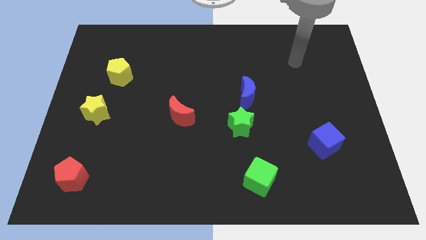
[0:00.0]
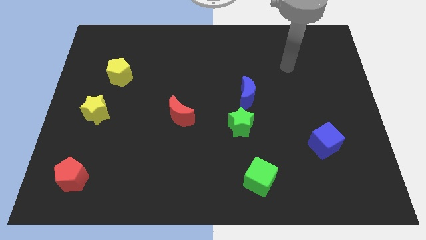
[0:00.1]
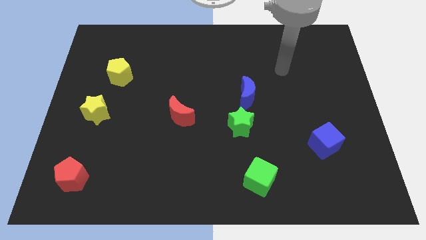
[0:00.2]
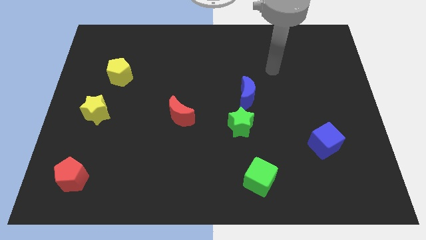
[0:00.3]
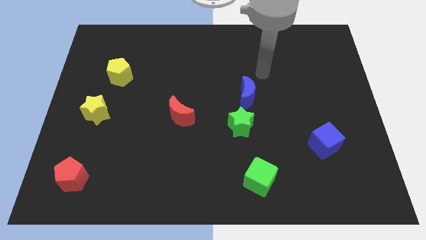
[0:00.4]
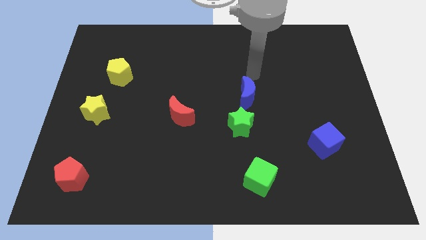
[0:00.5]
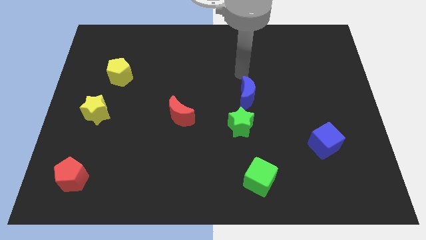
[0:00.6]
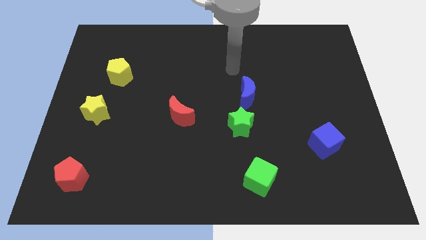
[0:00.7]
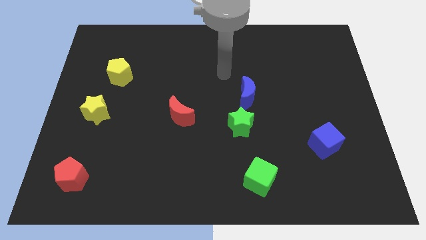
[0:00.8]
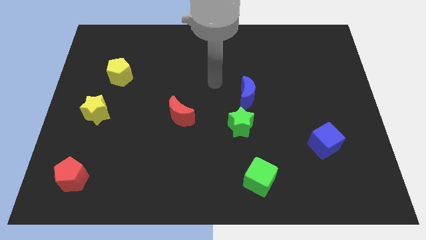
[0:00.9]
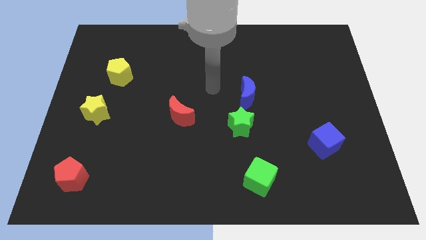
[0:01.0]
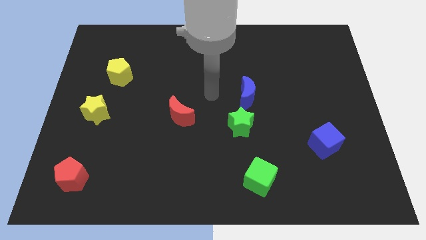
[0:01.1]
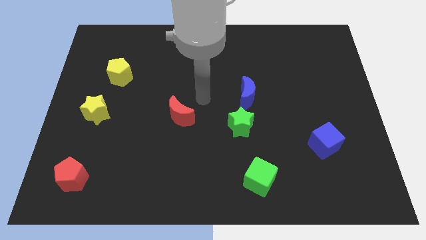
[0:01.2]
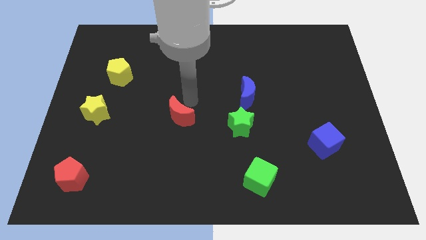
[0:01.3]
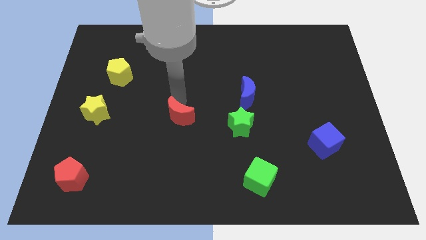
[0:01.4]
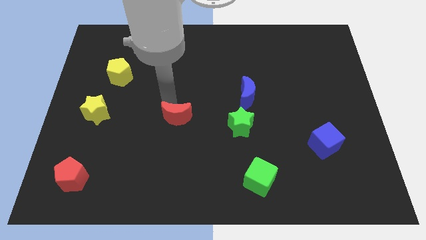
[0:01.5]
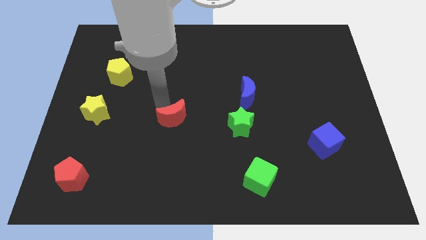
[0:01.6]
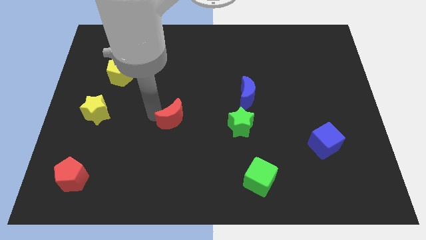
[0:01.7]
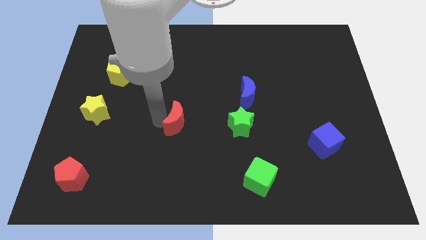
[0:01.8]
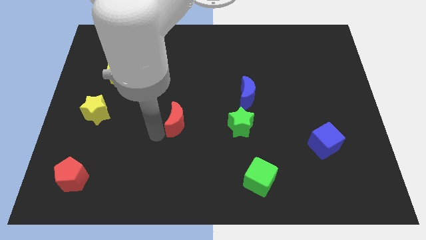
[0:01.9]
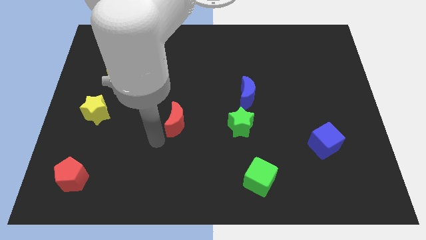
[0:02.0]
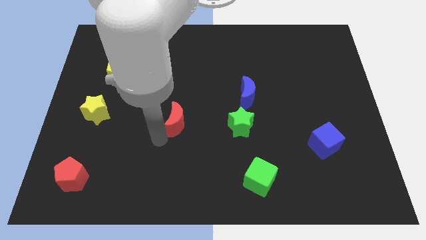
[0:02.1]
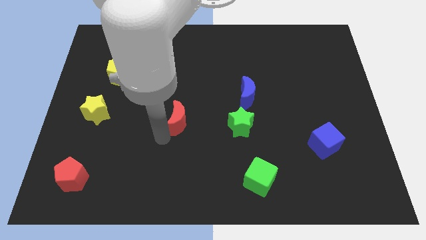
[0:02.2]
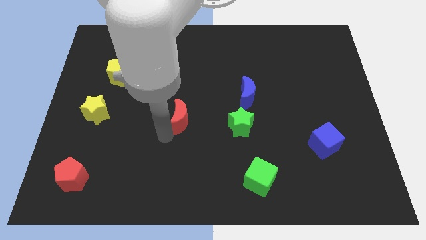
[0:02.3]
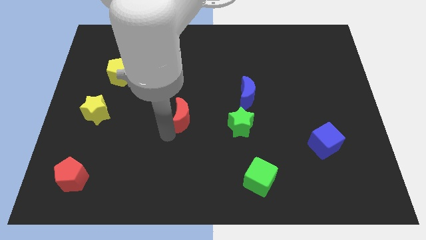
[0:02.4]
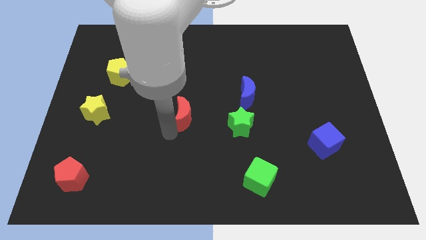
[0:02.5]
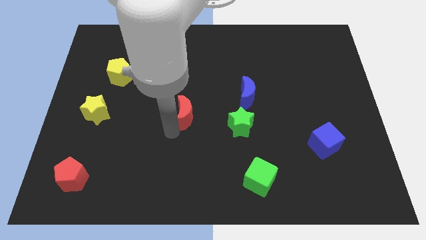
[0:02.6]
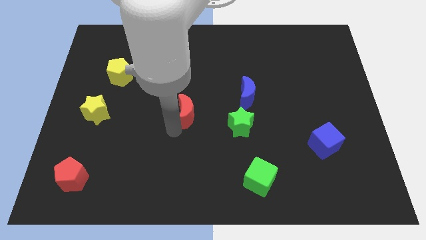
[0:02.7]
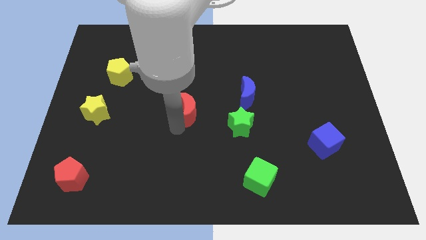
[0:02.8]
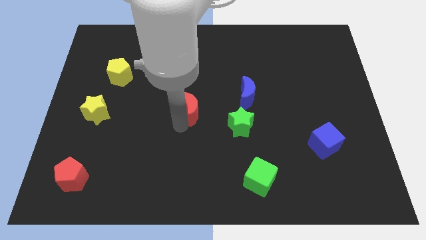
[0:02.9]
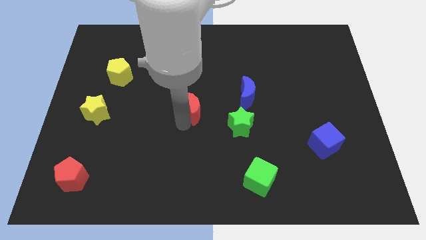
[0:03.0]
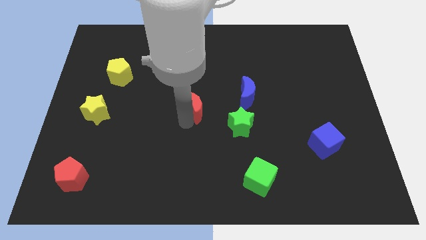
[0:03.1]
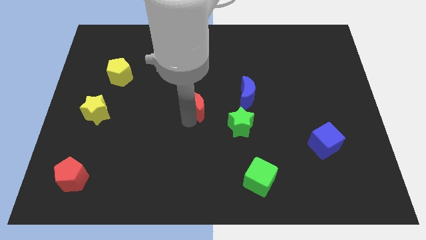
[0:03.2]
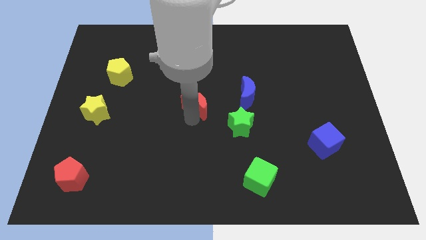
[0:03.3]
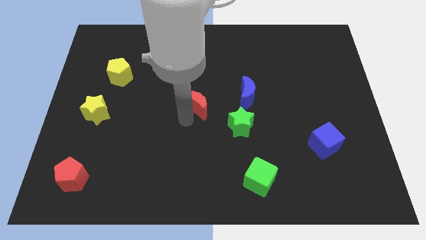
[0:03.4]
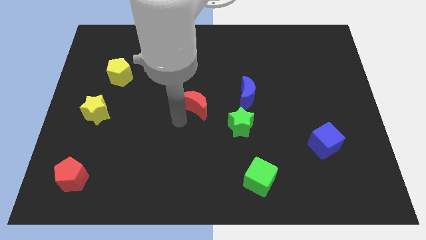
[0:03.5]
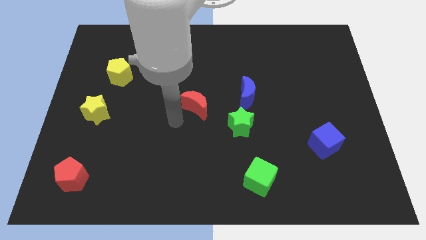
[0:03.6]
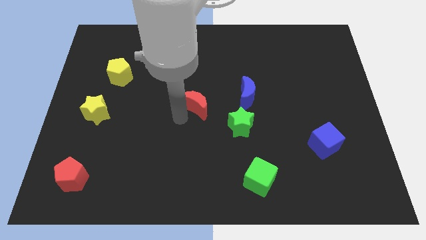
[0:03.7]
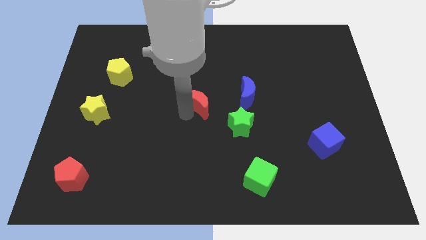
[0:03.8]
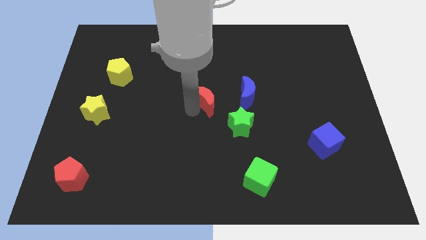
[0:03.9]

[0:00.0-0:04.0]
slightly move the red moon upwards and then to the right

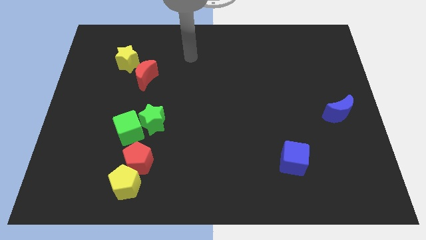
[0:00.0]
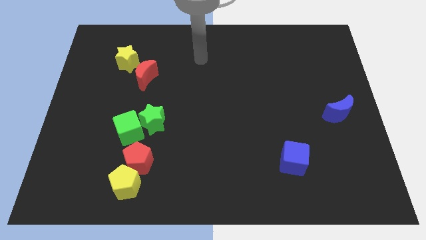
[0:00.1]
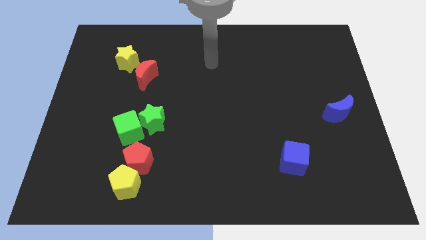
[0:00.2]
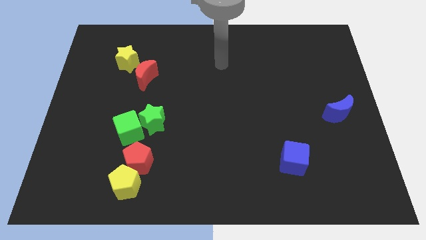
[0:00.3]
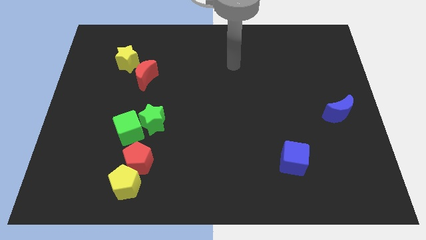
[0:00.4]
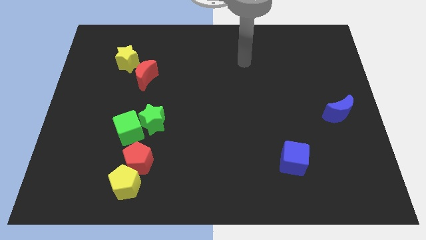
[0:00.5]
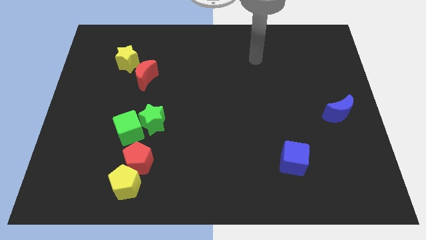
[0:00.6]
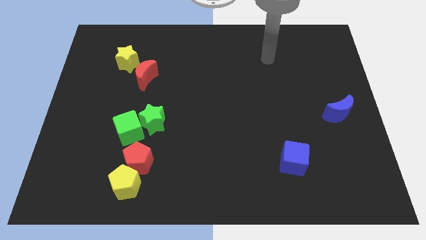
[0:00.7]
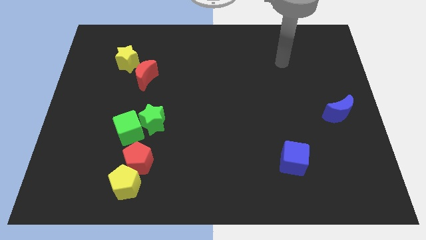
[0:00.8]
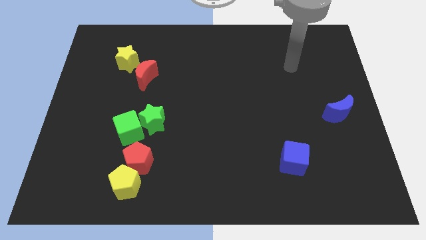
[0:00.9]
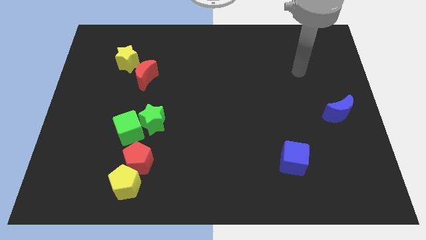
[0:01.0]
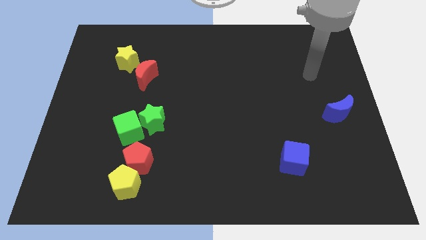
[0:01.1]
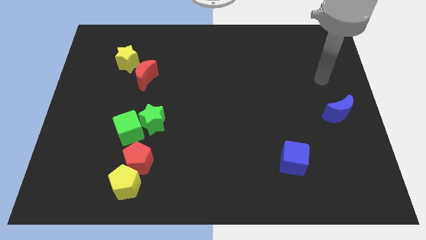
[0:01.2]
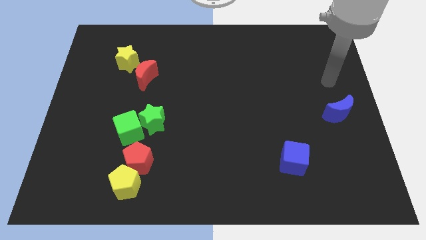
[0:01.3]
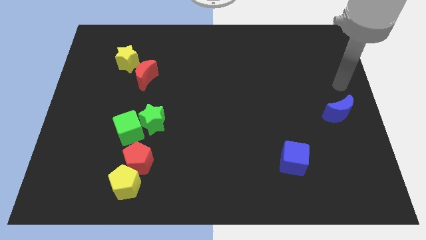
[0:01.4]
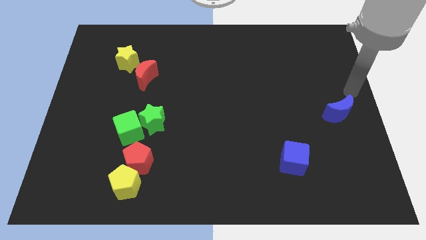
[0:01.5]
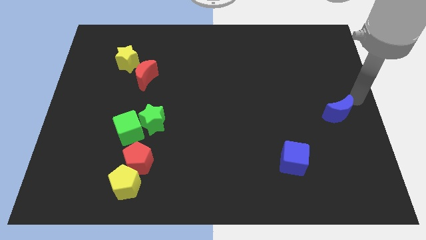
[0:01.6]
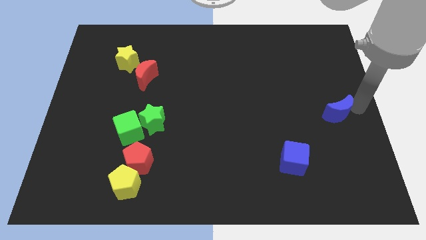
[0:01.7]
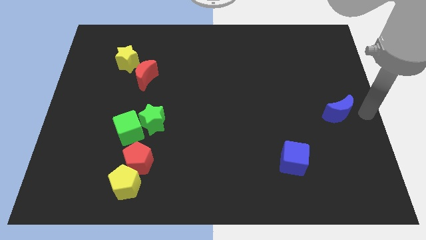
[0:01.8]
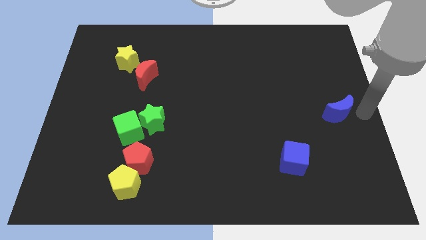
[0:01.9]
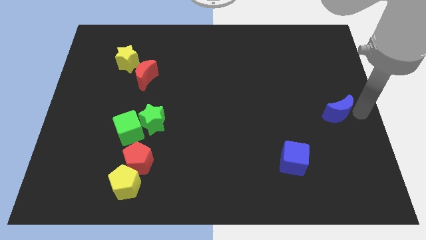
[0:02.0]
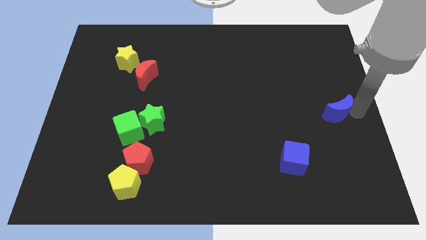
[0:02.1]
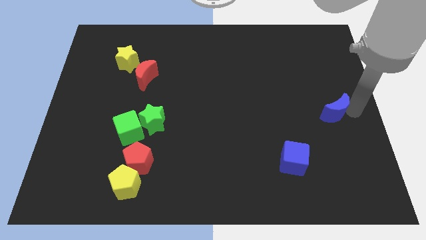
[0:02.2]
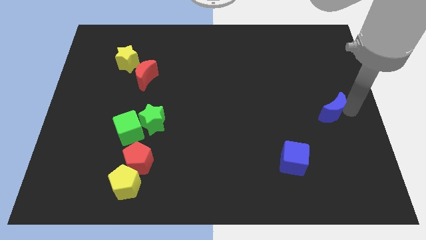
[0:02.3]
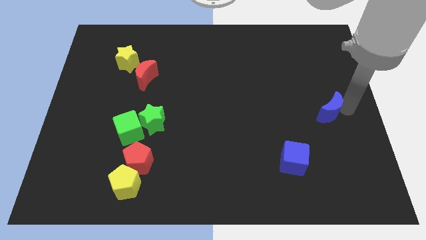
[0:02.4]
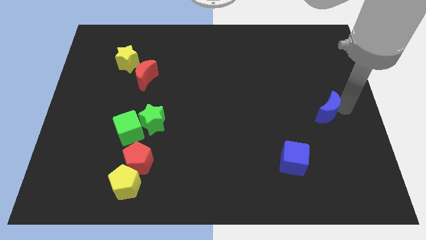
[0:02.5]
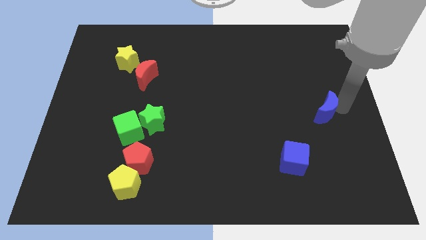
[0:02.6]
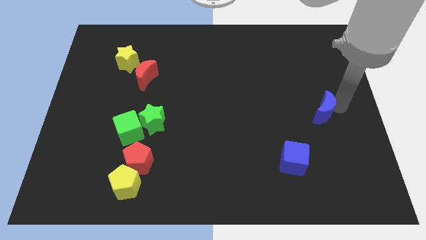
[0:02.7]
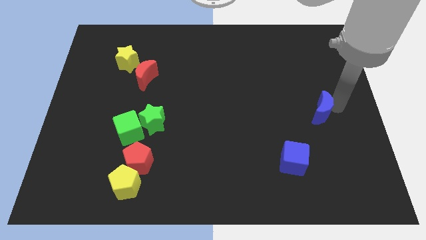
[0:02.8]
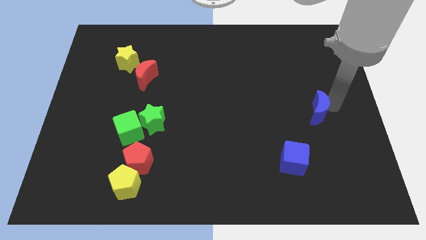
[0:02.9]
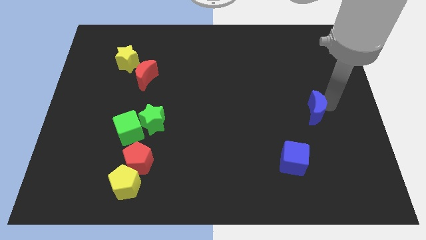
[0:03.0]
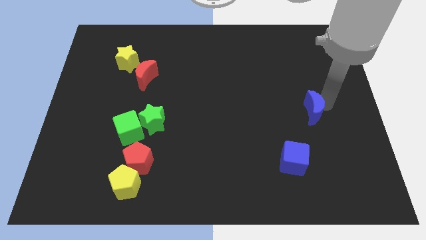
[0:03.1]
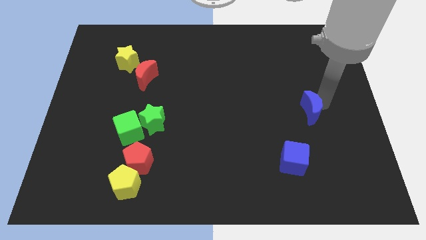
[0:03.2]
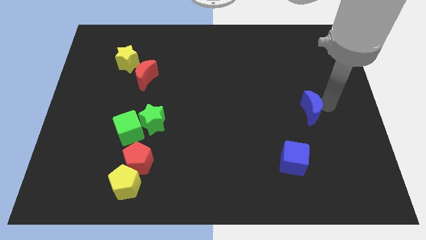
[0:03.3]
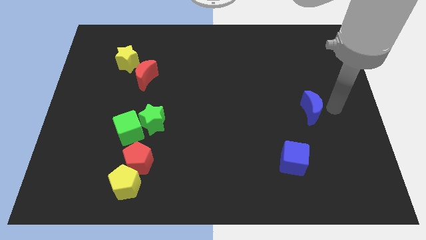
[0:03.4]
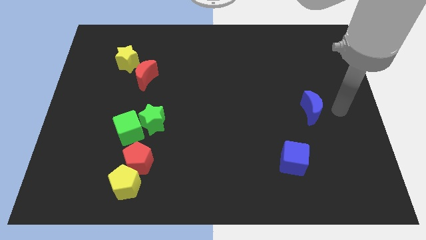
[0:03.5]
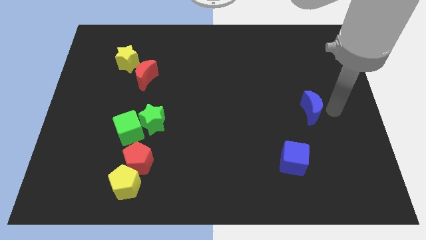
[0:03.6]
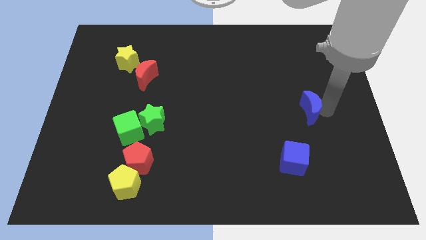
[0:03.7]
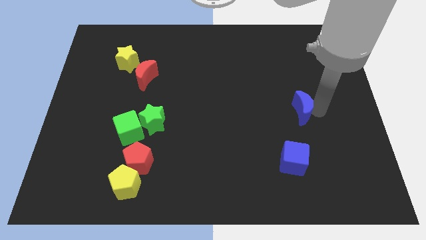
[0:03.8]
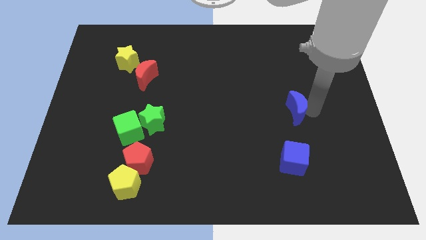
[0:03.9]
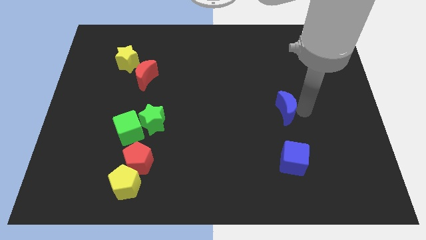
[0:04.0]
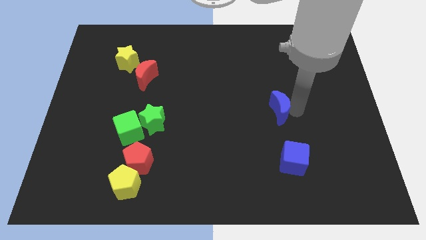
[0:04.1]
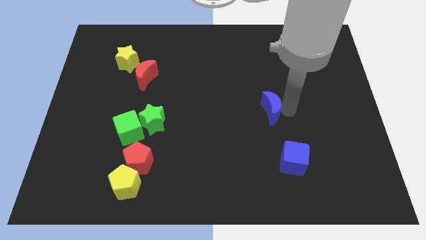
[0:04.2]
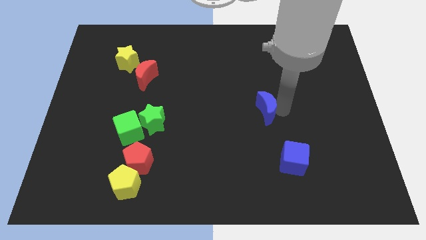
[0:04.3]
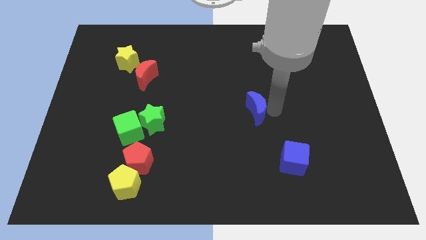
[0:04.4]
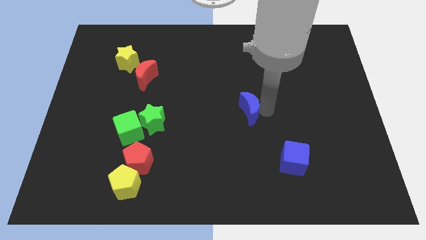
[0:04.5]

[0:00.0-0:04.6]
slide the blue moon left
